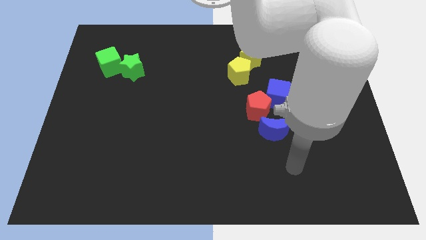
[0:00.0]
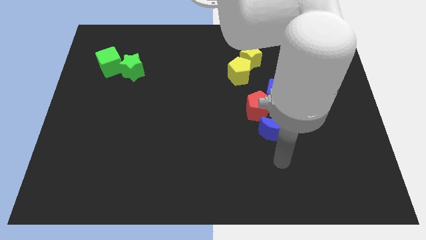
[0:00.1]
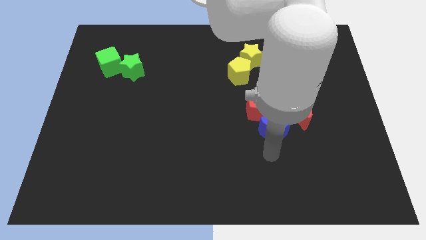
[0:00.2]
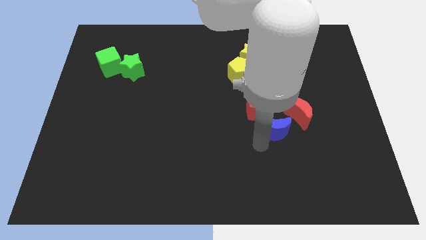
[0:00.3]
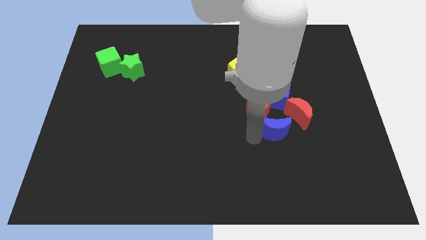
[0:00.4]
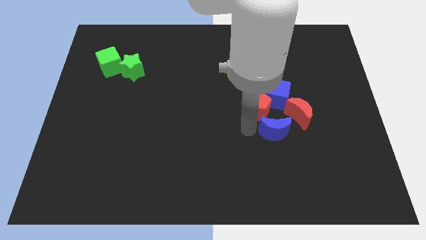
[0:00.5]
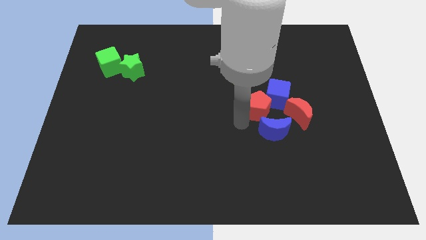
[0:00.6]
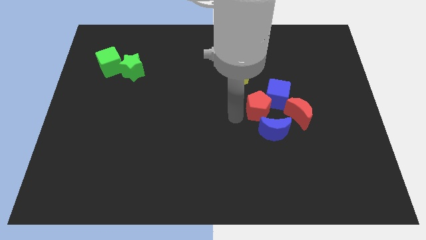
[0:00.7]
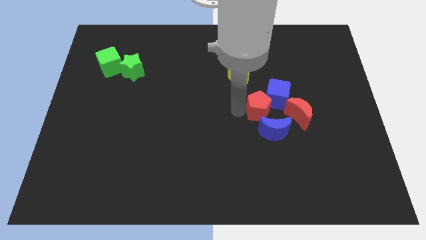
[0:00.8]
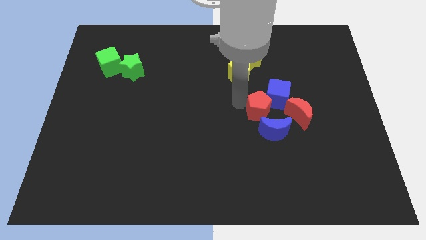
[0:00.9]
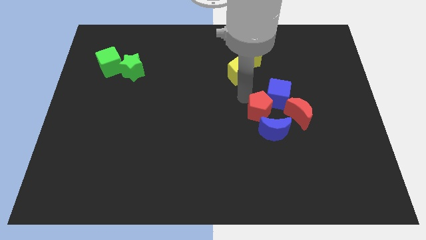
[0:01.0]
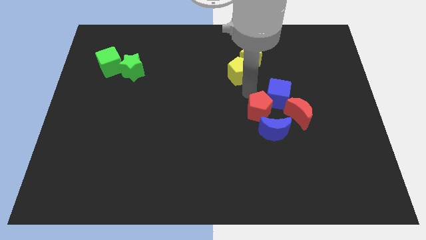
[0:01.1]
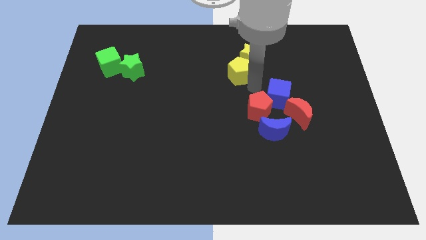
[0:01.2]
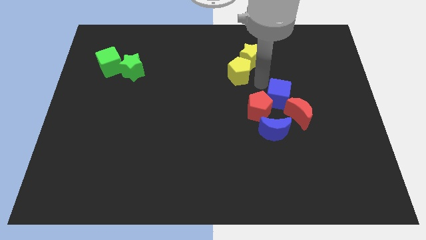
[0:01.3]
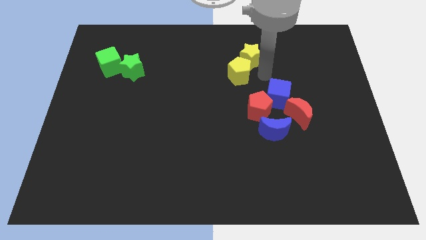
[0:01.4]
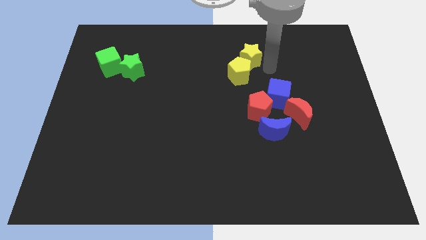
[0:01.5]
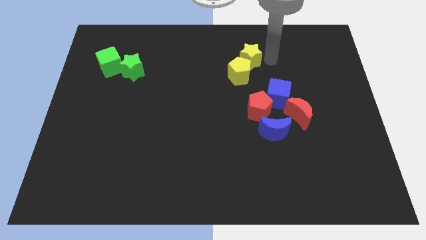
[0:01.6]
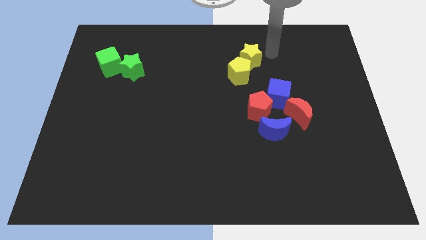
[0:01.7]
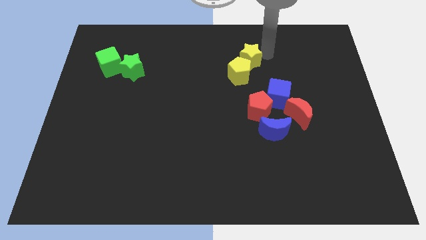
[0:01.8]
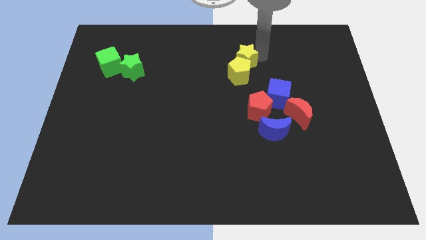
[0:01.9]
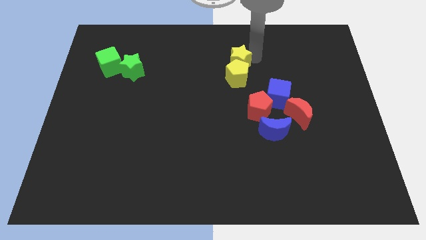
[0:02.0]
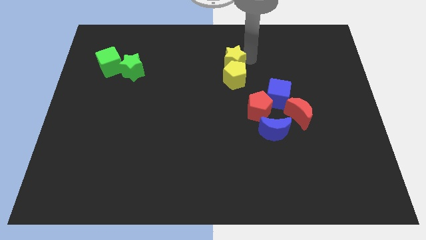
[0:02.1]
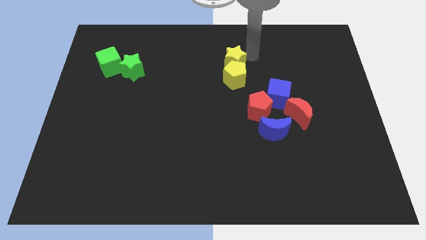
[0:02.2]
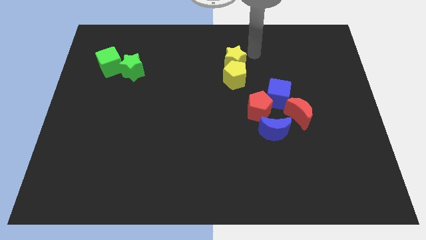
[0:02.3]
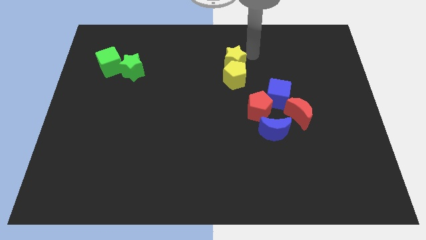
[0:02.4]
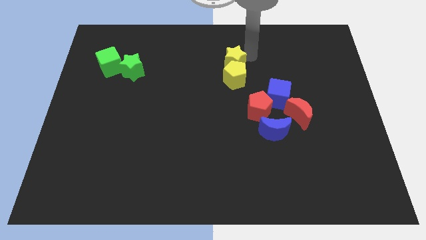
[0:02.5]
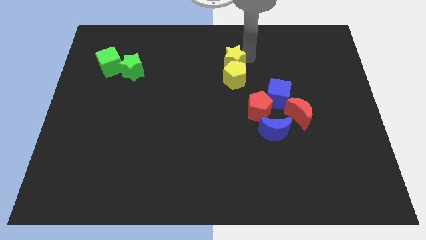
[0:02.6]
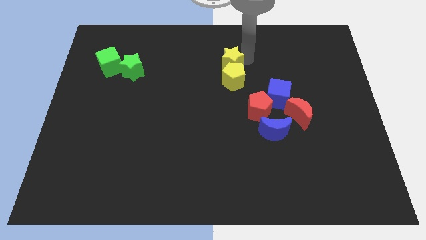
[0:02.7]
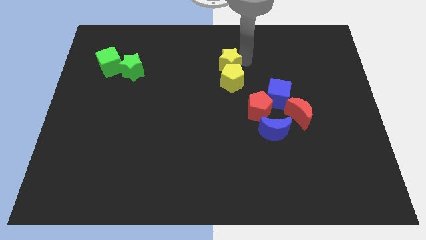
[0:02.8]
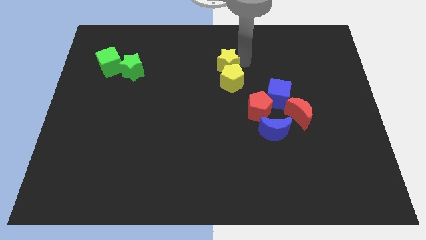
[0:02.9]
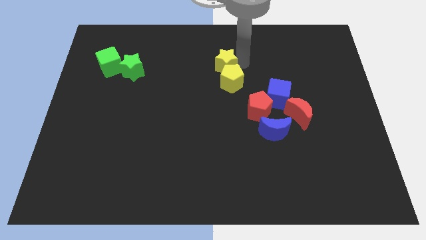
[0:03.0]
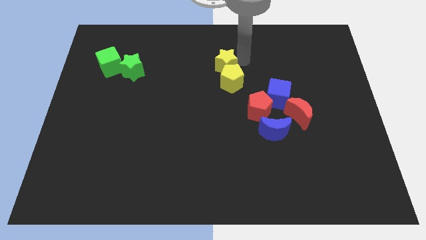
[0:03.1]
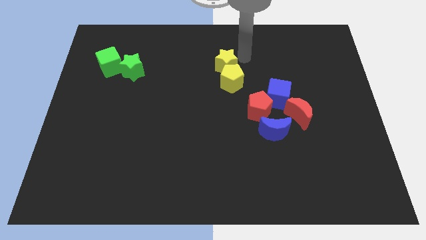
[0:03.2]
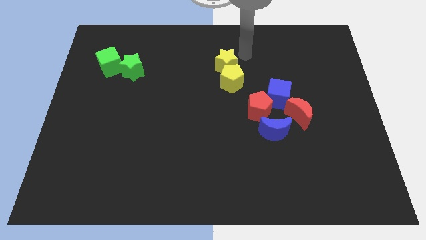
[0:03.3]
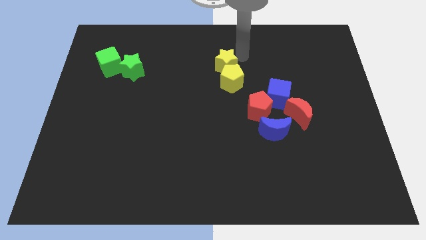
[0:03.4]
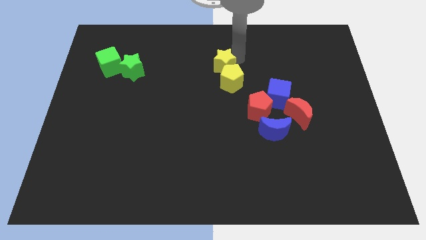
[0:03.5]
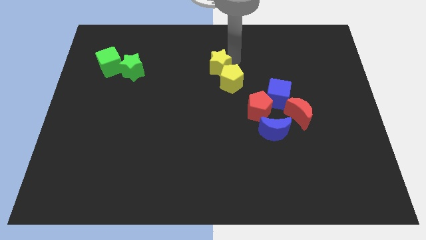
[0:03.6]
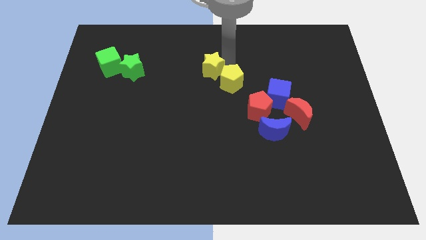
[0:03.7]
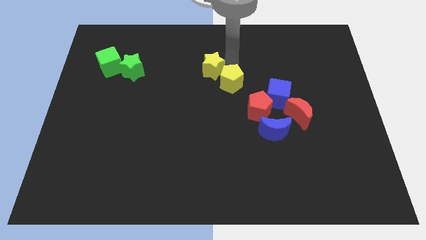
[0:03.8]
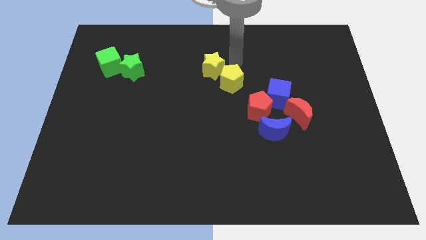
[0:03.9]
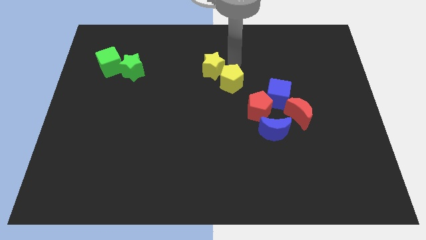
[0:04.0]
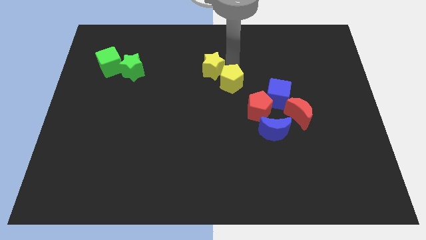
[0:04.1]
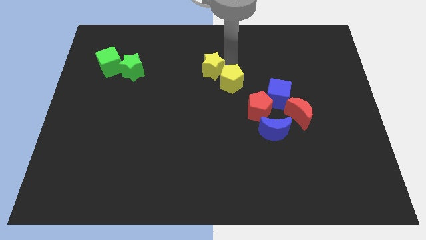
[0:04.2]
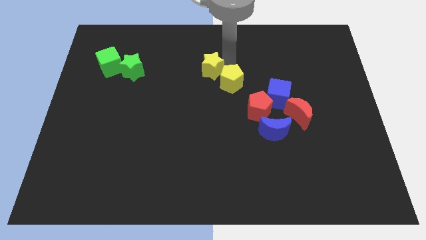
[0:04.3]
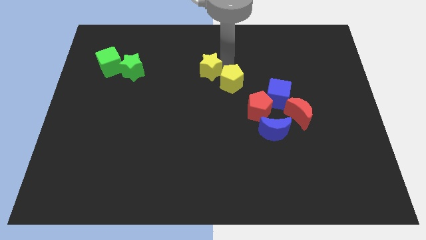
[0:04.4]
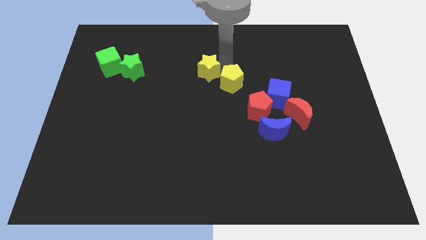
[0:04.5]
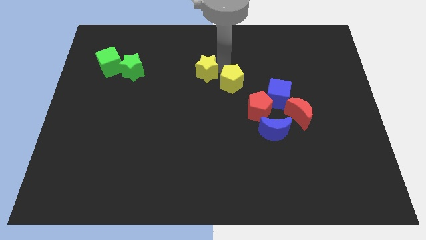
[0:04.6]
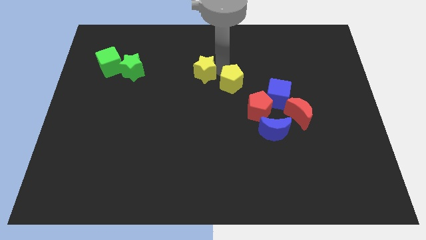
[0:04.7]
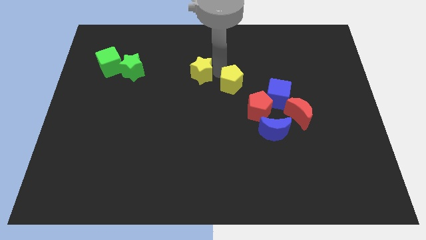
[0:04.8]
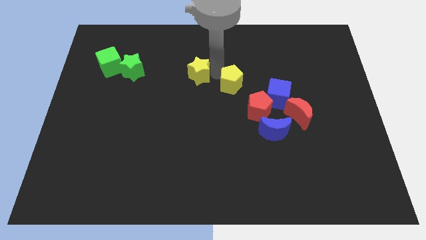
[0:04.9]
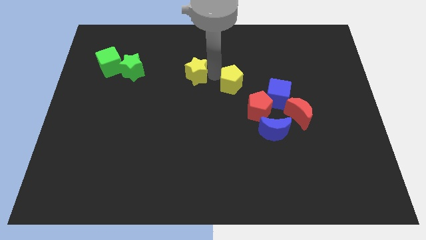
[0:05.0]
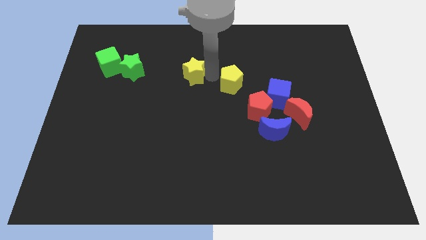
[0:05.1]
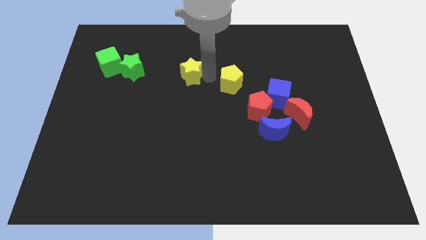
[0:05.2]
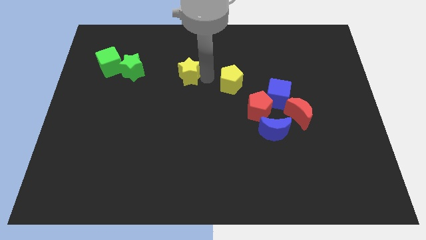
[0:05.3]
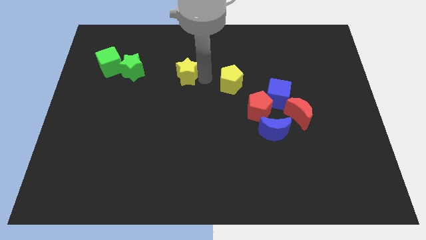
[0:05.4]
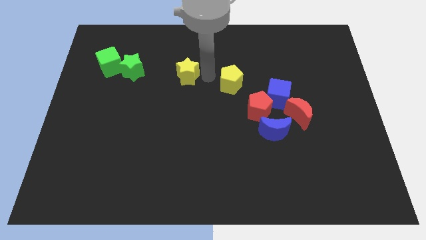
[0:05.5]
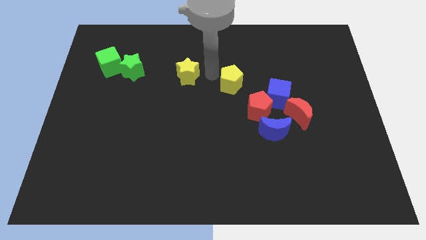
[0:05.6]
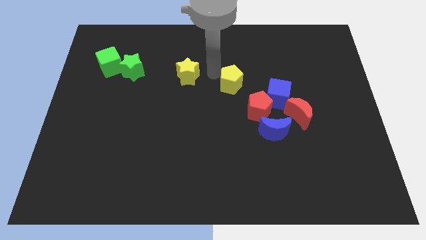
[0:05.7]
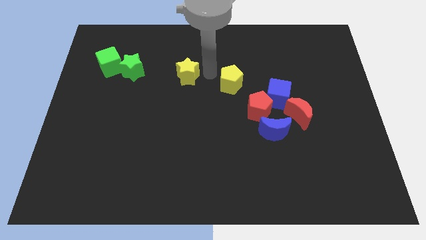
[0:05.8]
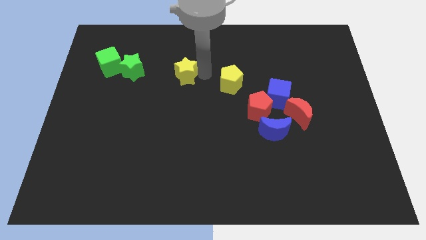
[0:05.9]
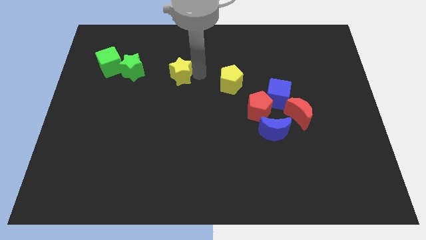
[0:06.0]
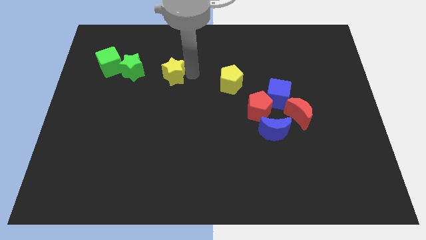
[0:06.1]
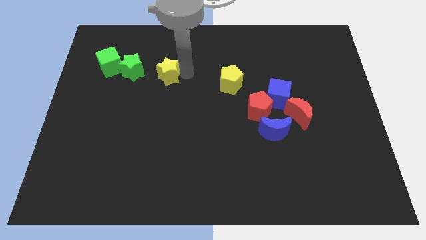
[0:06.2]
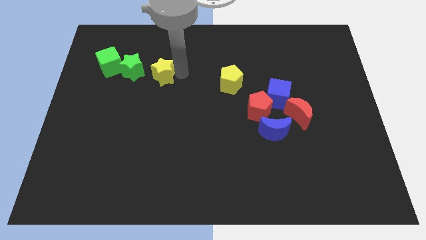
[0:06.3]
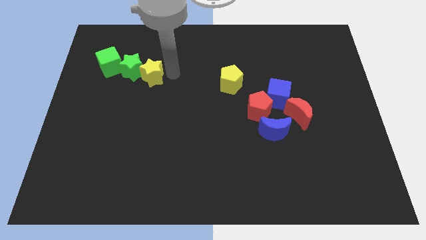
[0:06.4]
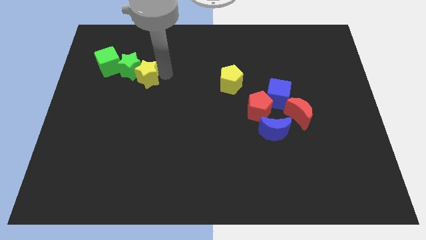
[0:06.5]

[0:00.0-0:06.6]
put the yellow star to the bottom right side of the green cube
